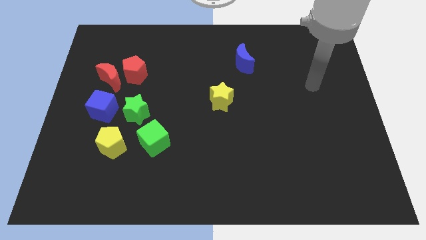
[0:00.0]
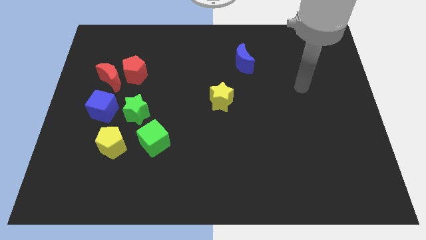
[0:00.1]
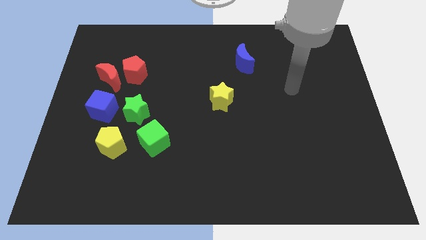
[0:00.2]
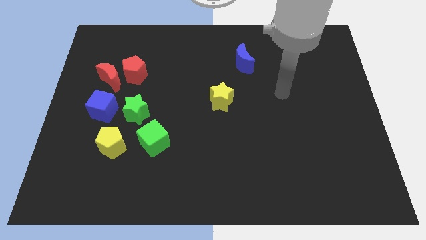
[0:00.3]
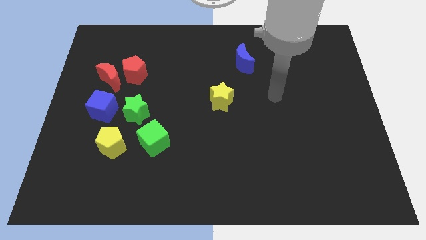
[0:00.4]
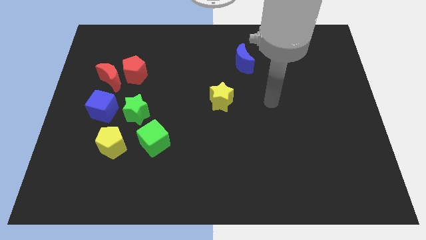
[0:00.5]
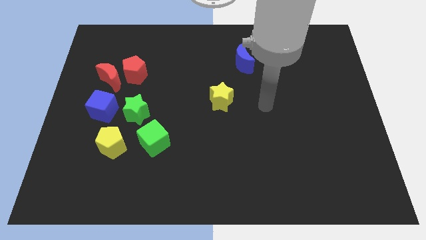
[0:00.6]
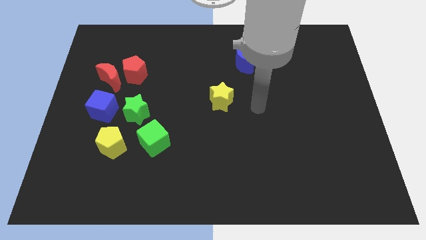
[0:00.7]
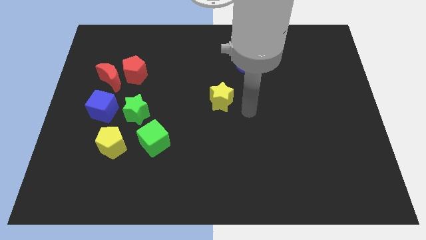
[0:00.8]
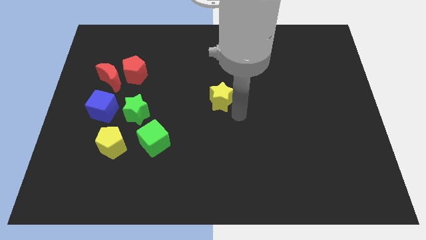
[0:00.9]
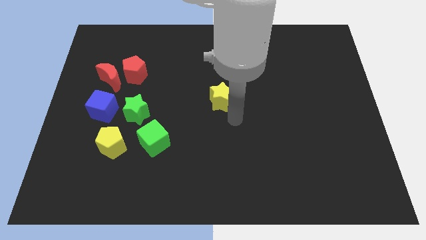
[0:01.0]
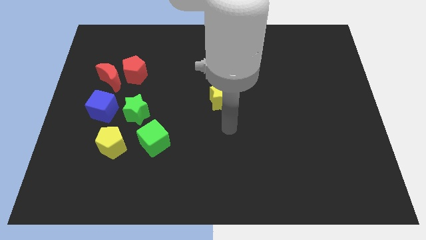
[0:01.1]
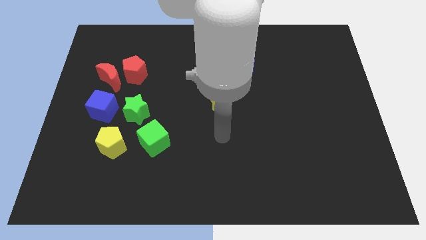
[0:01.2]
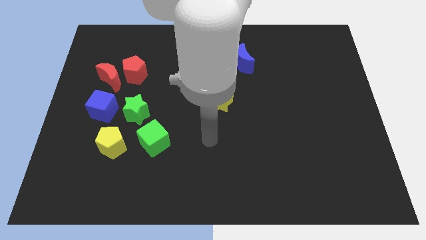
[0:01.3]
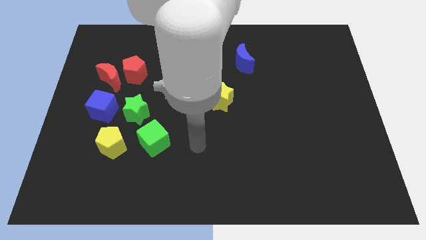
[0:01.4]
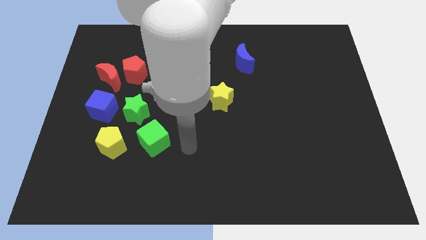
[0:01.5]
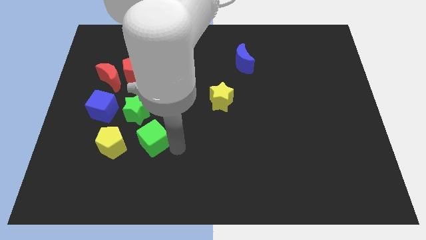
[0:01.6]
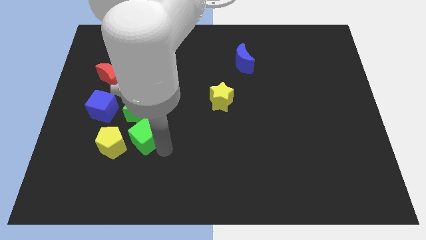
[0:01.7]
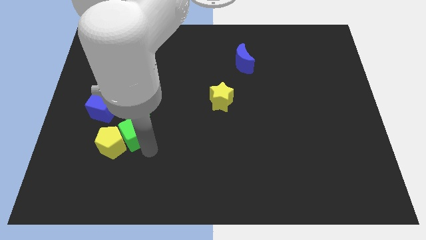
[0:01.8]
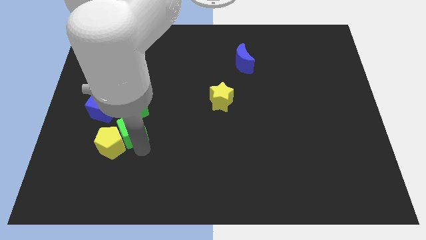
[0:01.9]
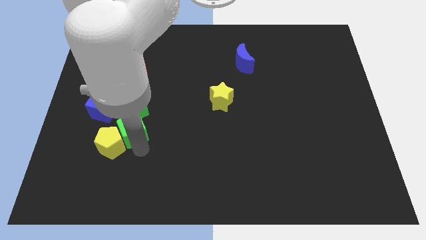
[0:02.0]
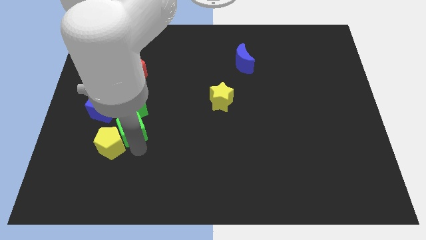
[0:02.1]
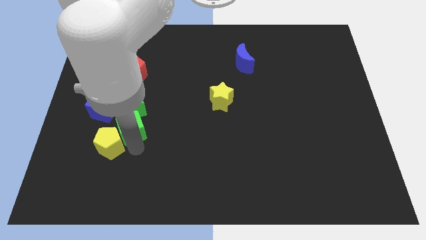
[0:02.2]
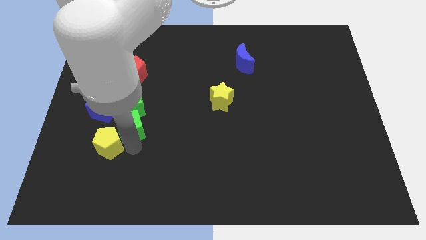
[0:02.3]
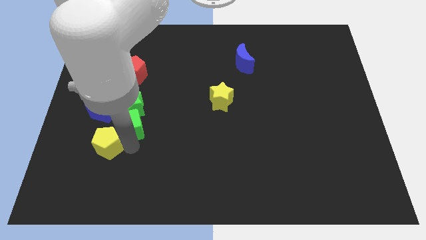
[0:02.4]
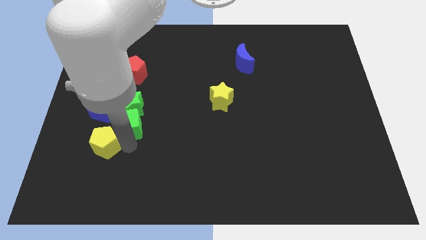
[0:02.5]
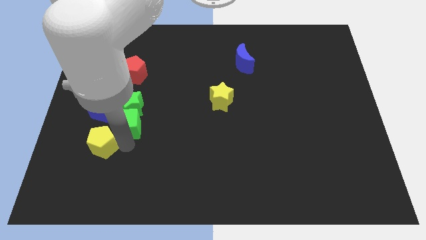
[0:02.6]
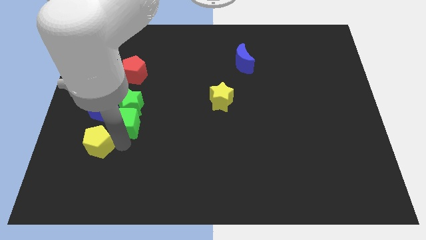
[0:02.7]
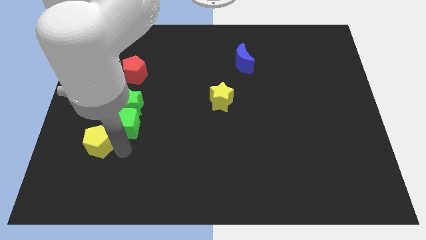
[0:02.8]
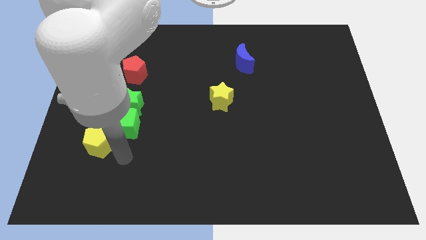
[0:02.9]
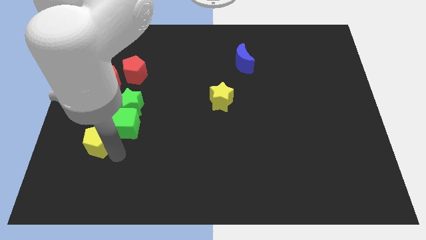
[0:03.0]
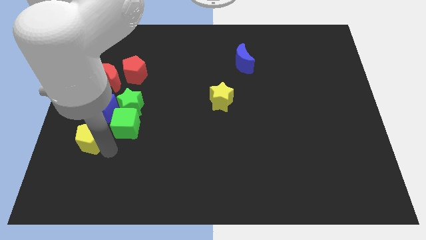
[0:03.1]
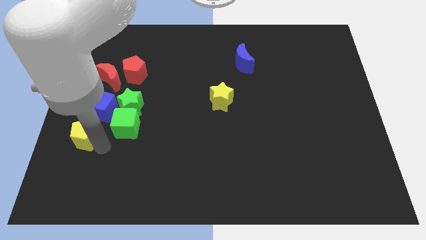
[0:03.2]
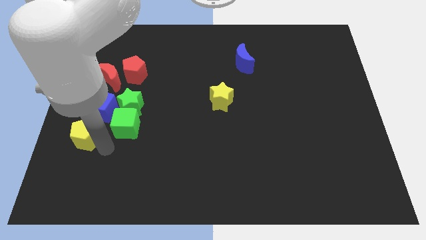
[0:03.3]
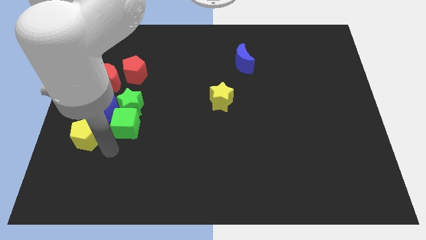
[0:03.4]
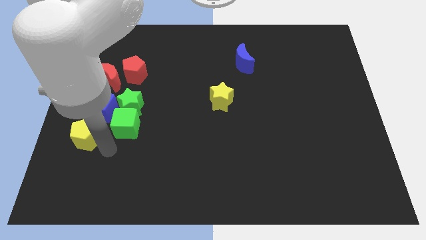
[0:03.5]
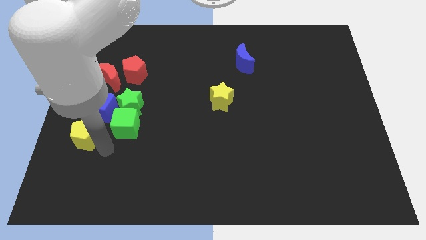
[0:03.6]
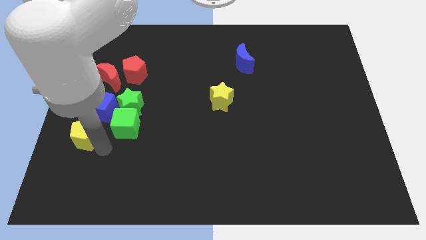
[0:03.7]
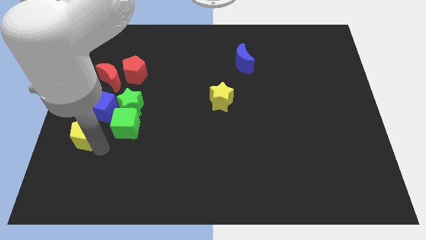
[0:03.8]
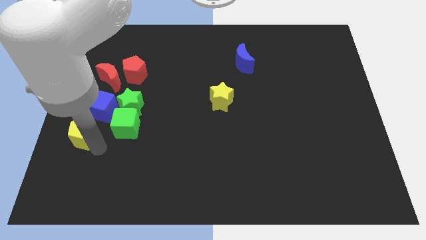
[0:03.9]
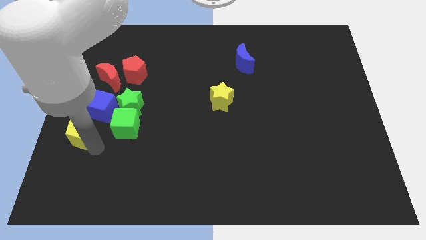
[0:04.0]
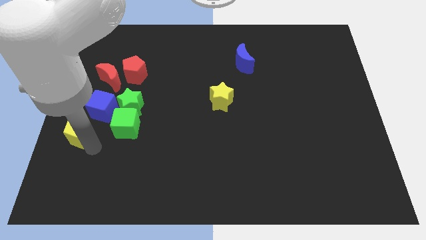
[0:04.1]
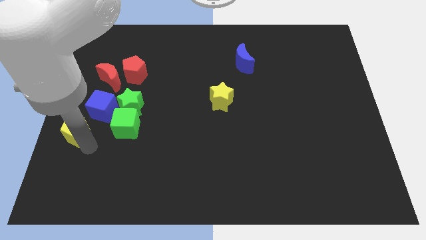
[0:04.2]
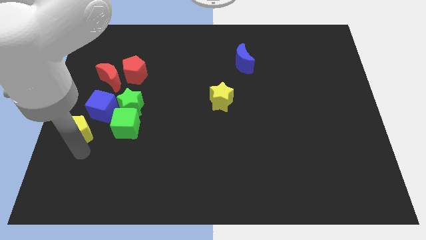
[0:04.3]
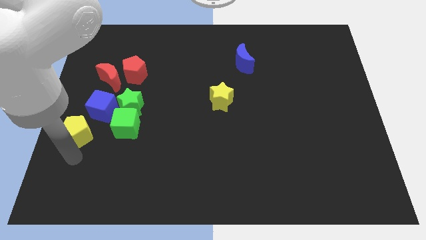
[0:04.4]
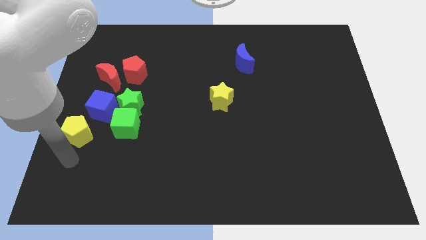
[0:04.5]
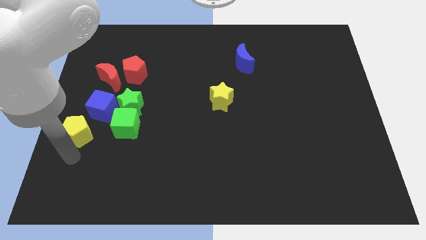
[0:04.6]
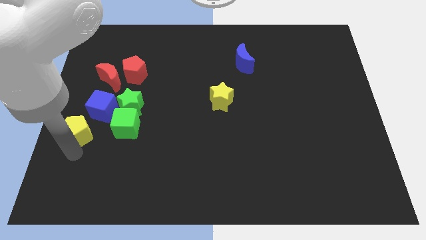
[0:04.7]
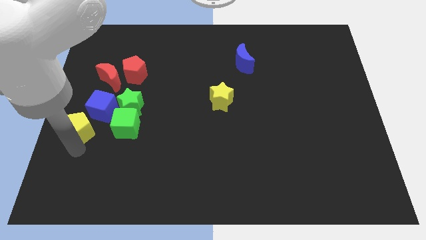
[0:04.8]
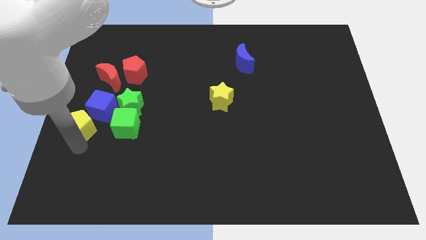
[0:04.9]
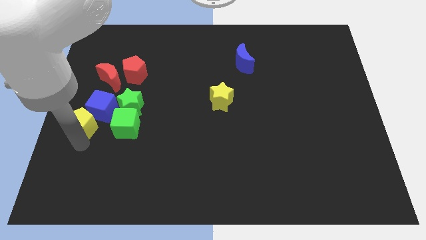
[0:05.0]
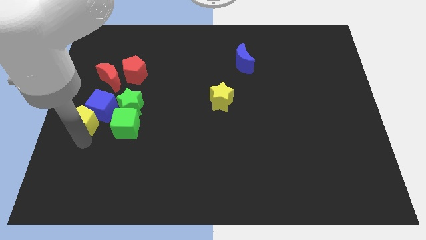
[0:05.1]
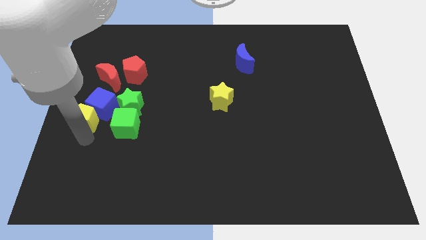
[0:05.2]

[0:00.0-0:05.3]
put the yellow pentagon to the left side of the green star

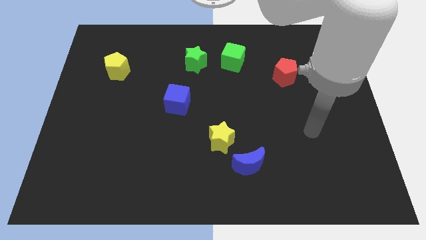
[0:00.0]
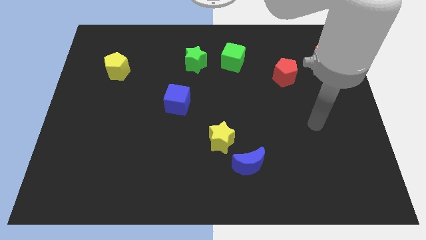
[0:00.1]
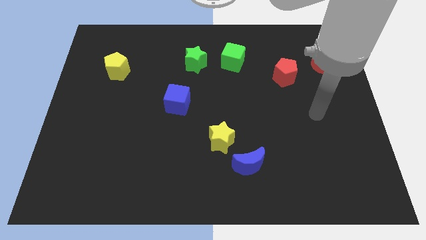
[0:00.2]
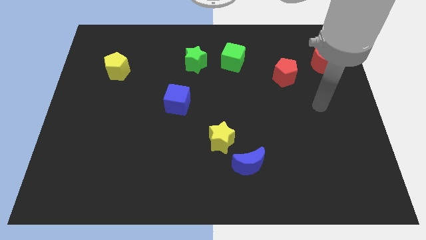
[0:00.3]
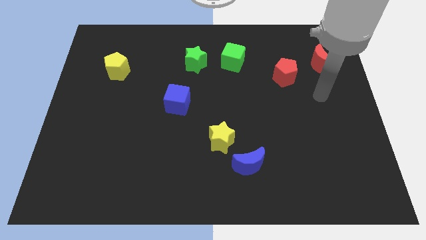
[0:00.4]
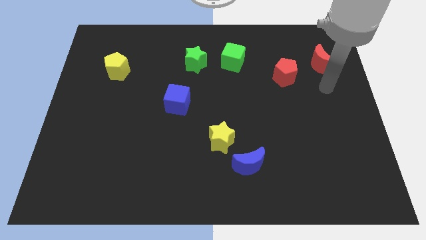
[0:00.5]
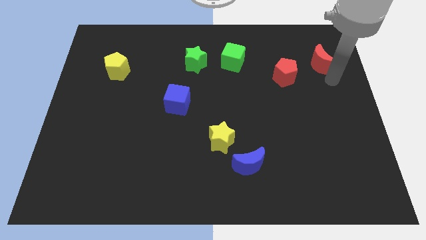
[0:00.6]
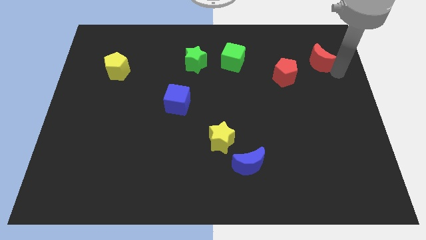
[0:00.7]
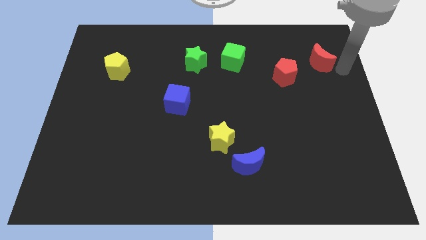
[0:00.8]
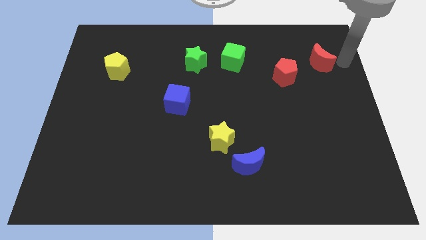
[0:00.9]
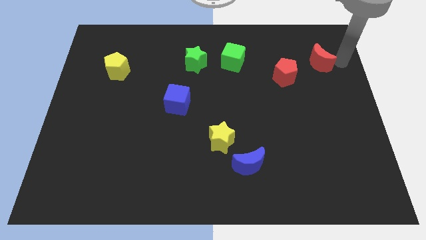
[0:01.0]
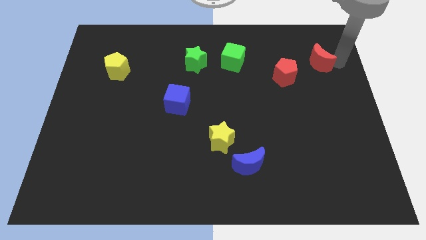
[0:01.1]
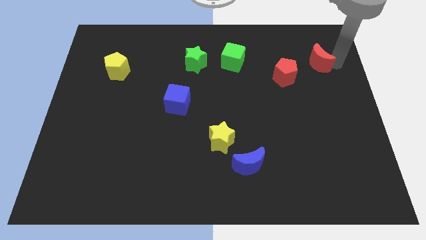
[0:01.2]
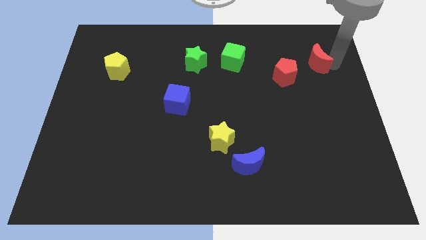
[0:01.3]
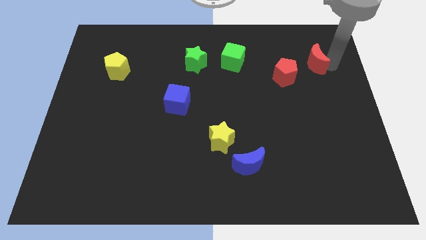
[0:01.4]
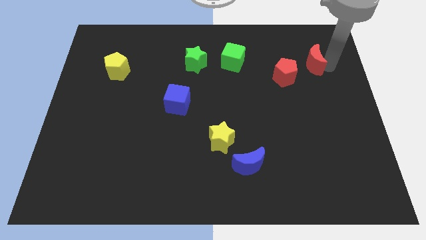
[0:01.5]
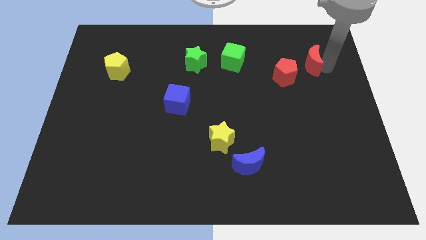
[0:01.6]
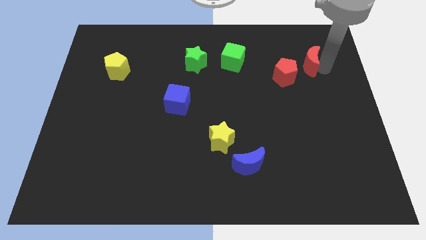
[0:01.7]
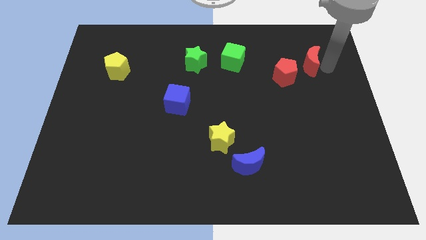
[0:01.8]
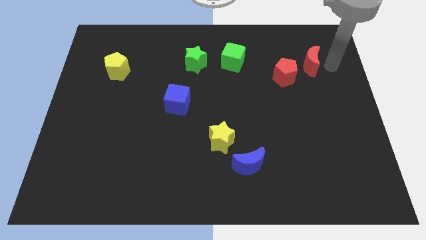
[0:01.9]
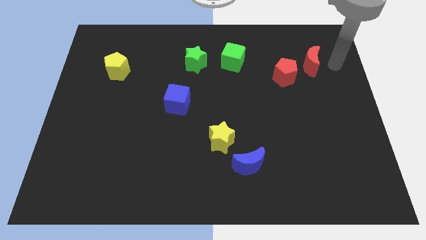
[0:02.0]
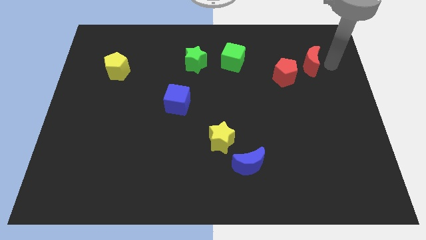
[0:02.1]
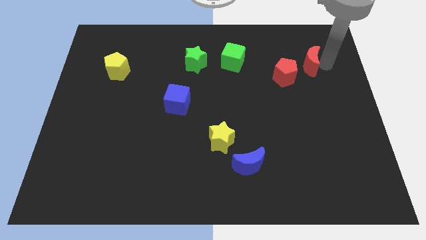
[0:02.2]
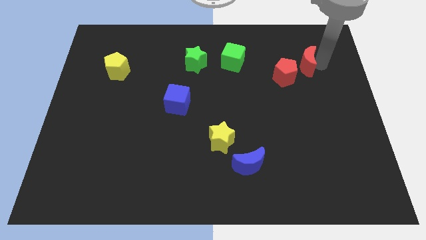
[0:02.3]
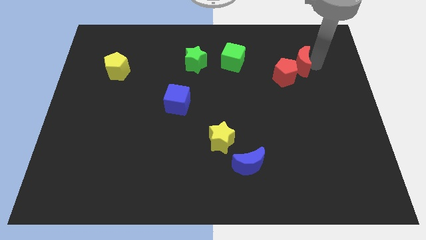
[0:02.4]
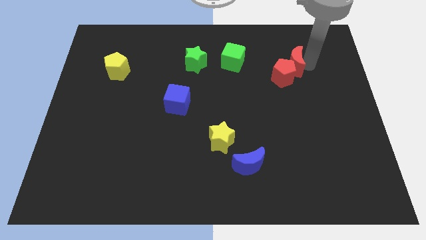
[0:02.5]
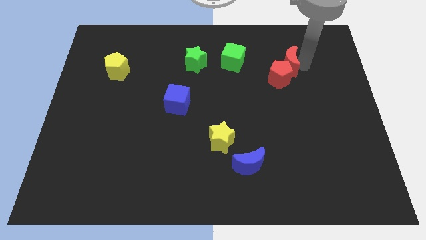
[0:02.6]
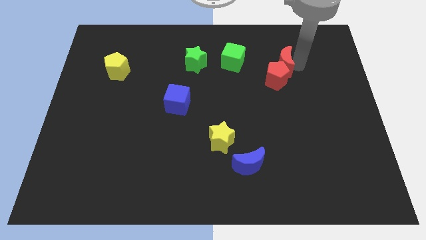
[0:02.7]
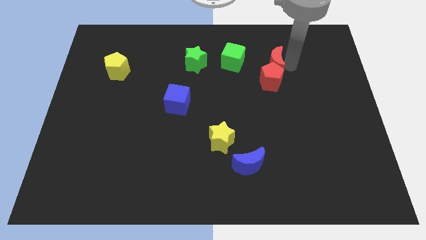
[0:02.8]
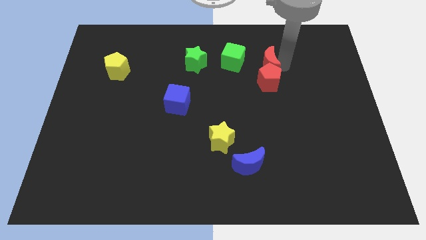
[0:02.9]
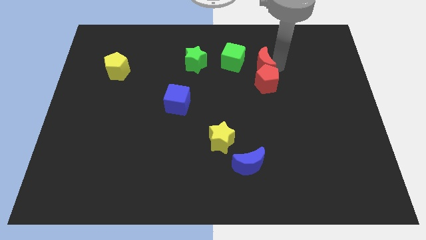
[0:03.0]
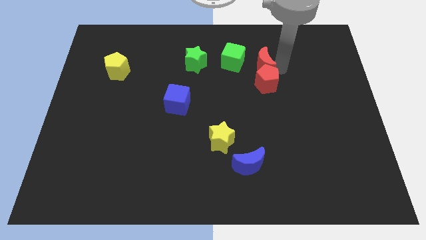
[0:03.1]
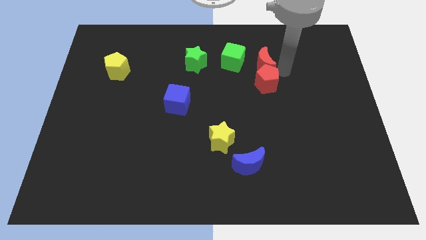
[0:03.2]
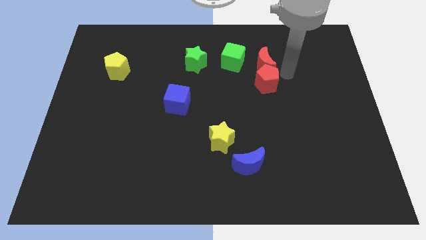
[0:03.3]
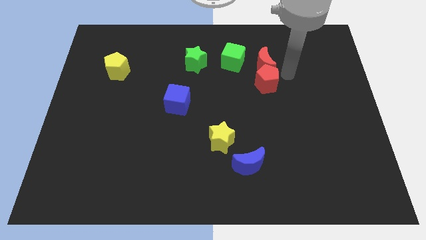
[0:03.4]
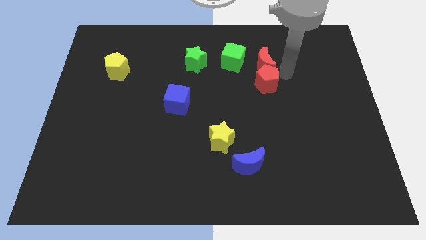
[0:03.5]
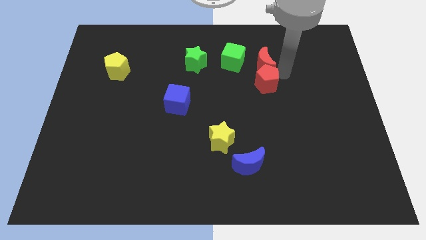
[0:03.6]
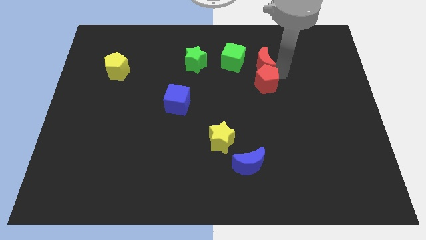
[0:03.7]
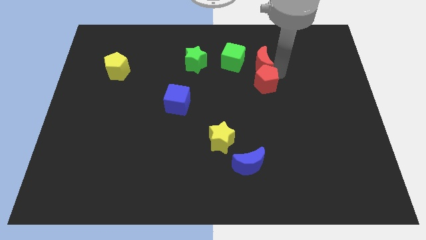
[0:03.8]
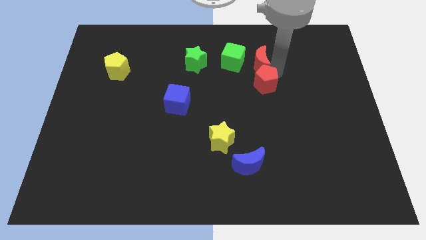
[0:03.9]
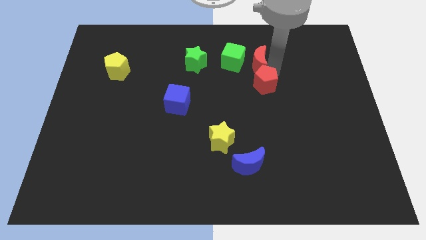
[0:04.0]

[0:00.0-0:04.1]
move the red moon right of the green star
